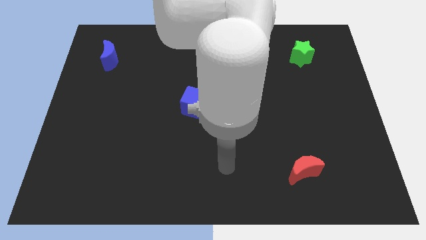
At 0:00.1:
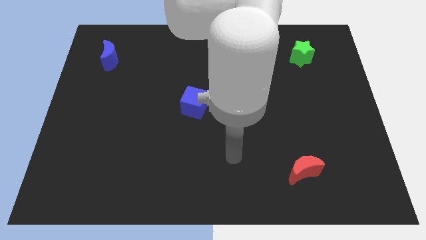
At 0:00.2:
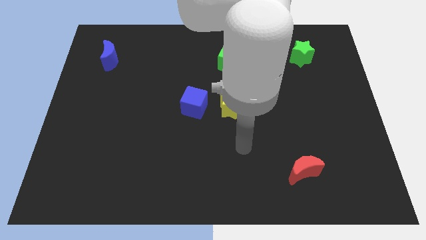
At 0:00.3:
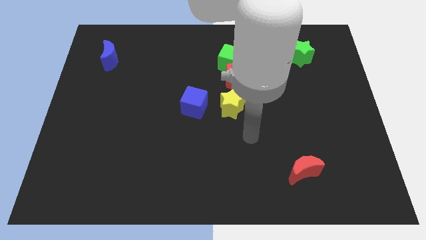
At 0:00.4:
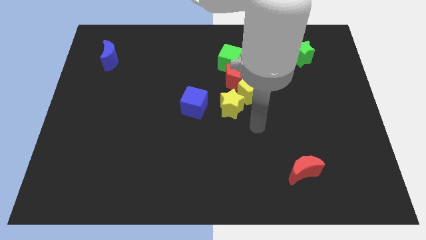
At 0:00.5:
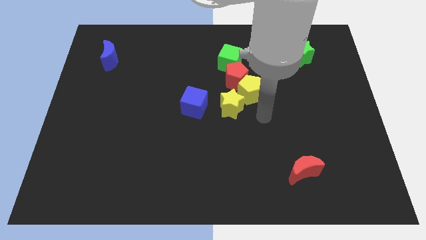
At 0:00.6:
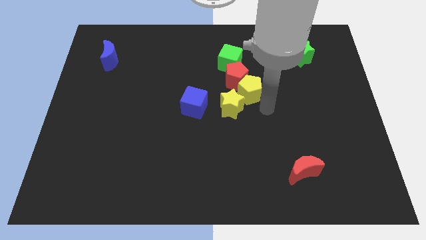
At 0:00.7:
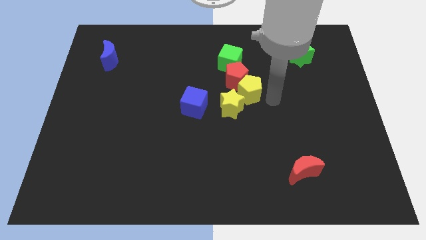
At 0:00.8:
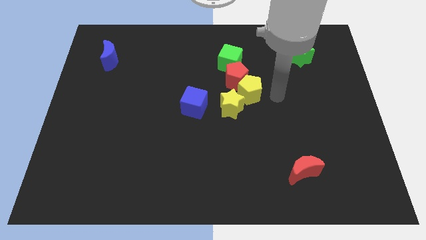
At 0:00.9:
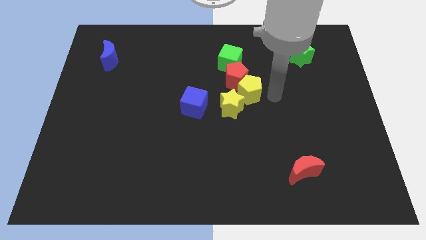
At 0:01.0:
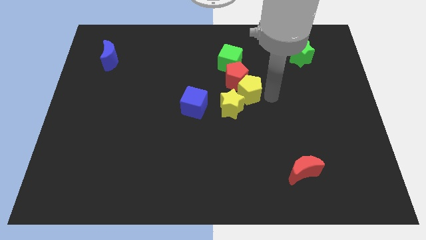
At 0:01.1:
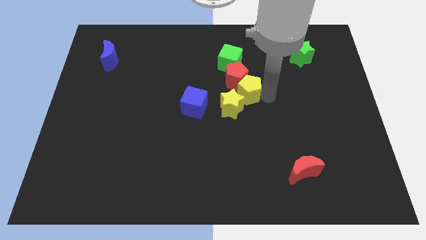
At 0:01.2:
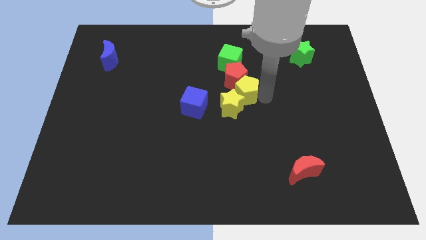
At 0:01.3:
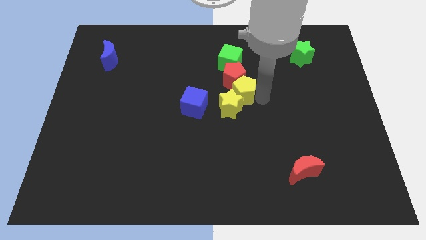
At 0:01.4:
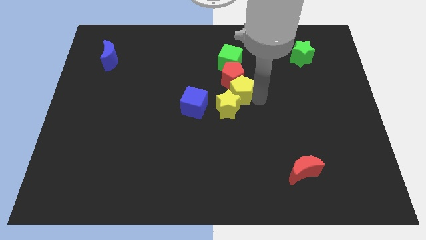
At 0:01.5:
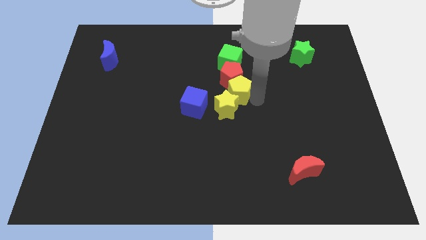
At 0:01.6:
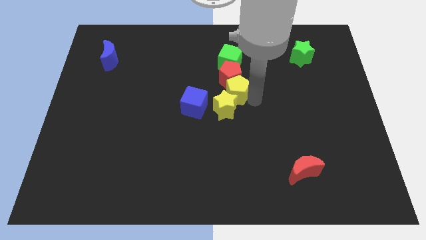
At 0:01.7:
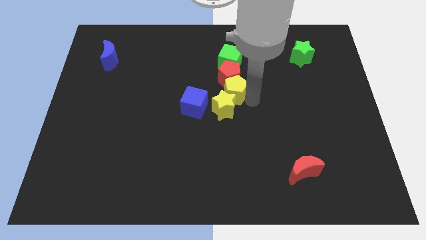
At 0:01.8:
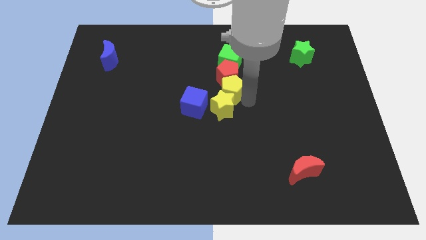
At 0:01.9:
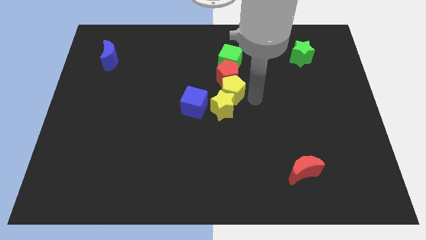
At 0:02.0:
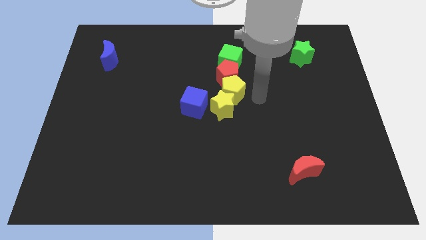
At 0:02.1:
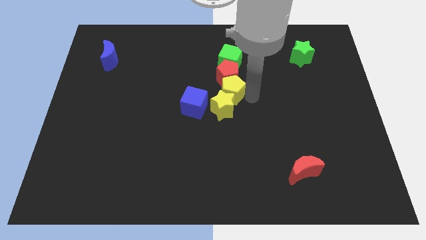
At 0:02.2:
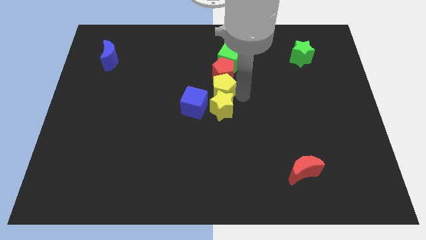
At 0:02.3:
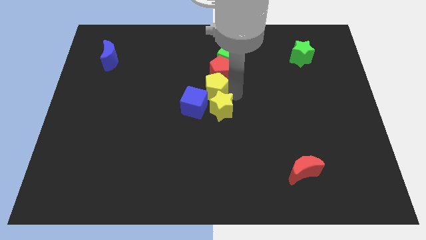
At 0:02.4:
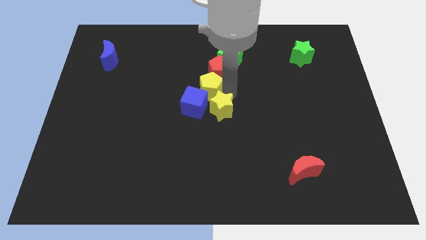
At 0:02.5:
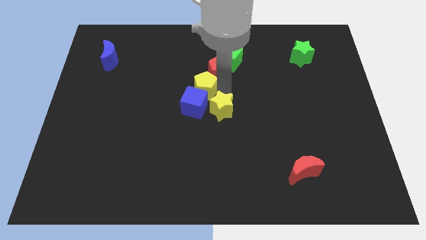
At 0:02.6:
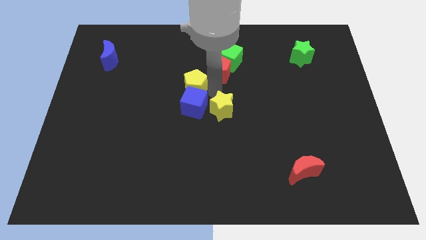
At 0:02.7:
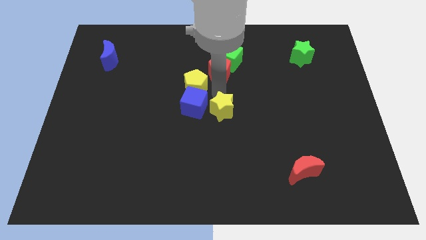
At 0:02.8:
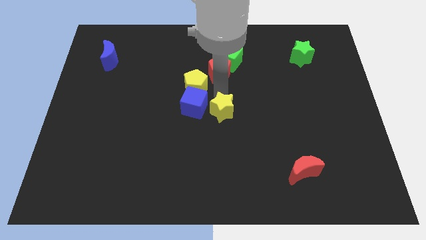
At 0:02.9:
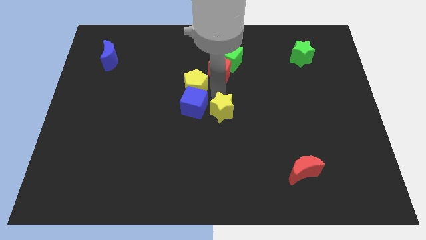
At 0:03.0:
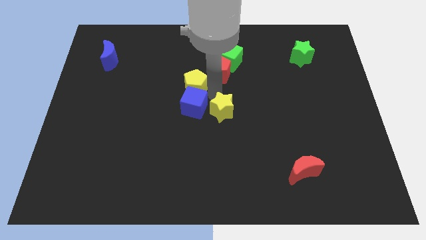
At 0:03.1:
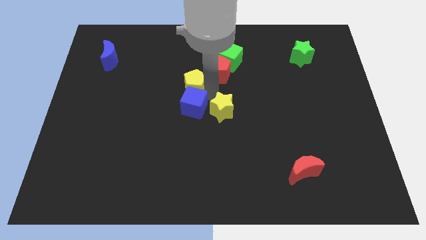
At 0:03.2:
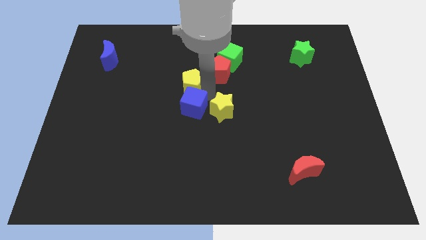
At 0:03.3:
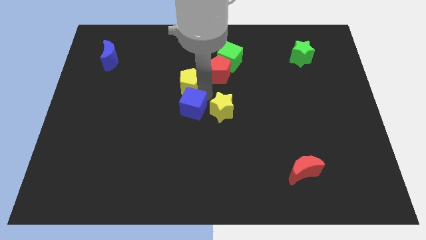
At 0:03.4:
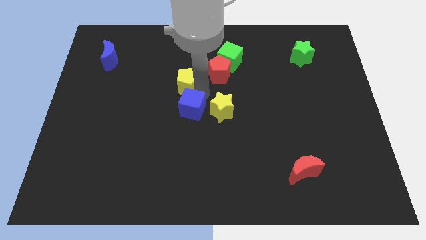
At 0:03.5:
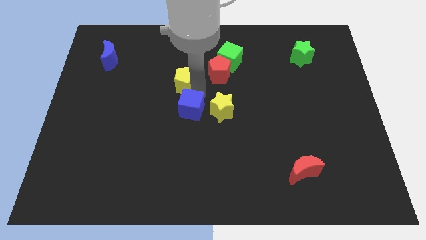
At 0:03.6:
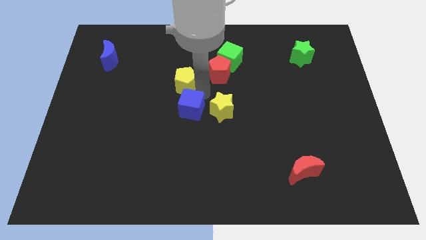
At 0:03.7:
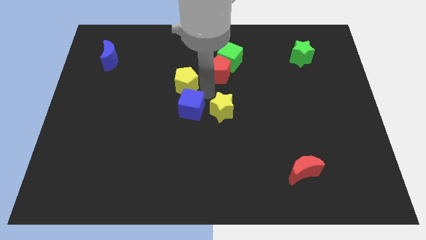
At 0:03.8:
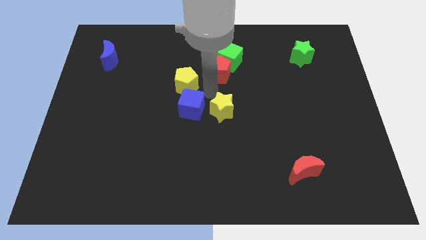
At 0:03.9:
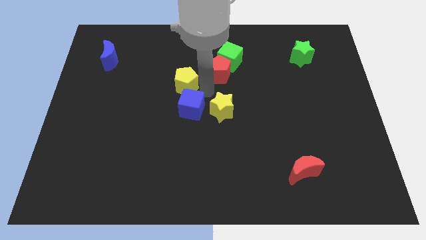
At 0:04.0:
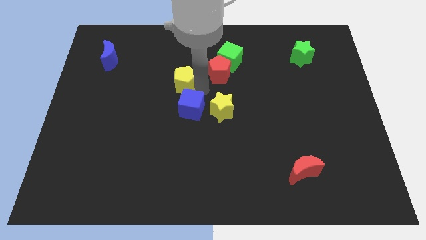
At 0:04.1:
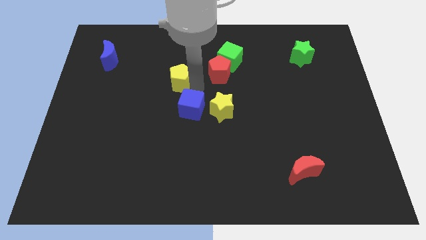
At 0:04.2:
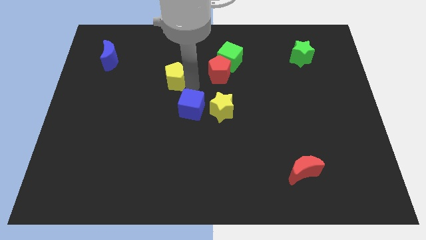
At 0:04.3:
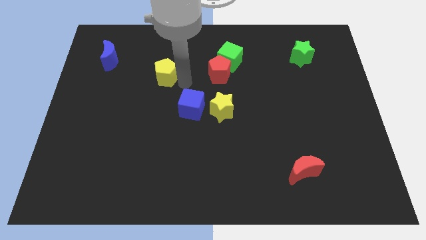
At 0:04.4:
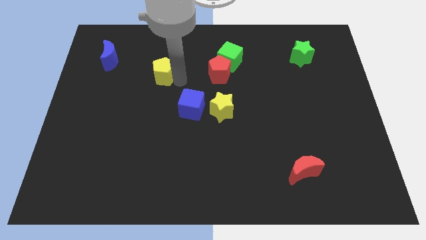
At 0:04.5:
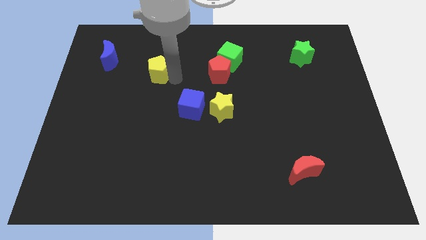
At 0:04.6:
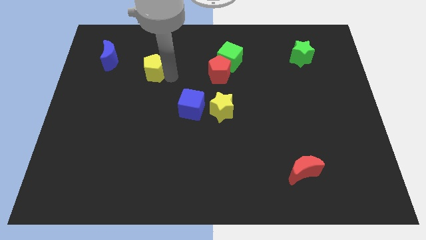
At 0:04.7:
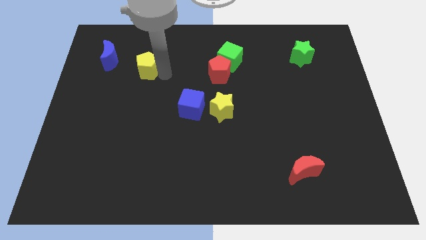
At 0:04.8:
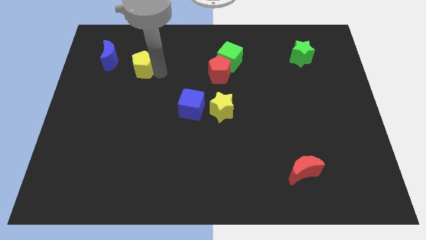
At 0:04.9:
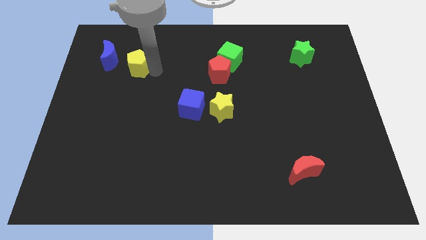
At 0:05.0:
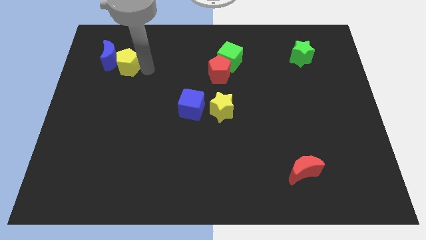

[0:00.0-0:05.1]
push the yellow pentagon next to the blue moon
